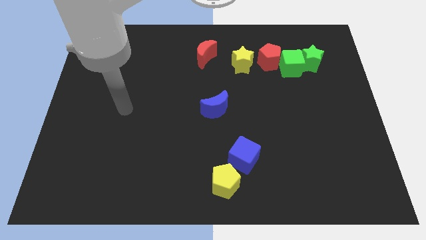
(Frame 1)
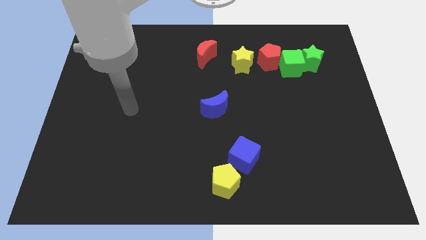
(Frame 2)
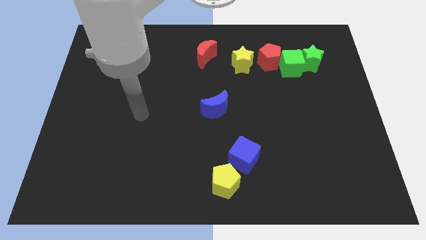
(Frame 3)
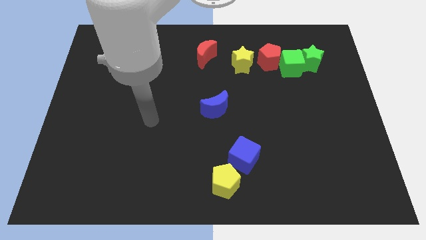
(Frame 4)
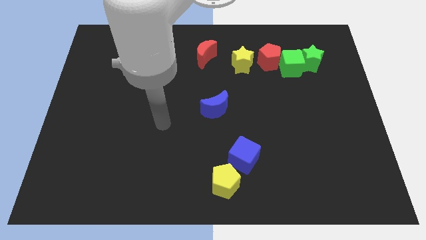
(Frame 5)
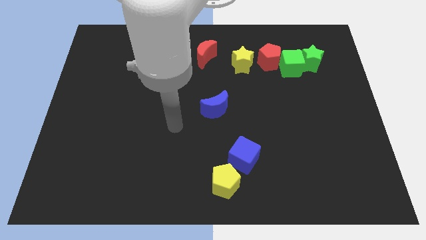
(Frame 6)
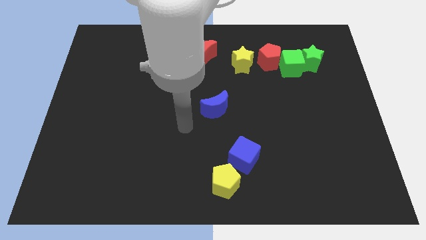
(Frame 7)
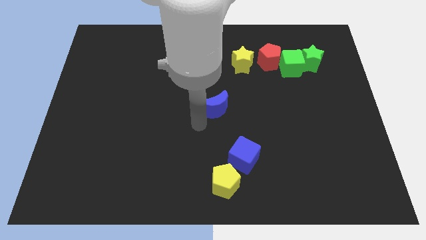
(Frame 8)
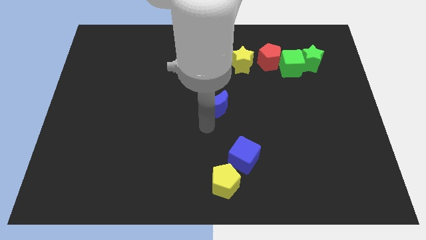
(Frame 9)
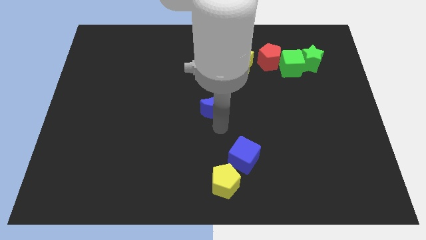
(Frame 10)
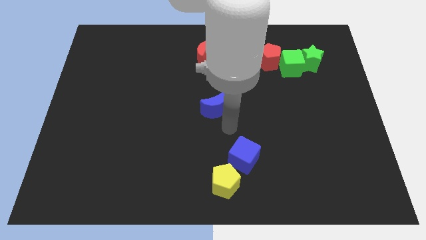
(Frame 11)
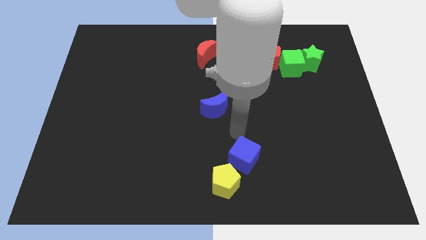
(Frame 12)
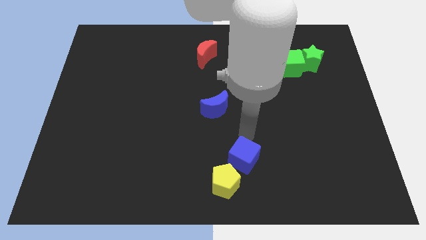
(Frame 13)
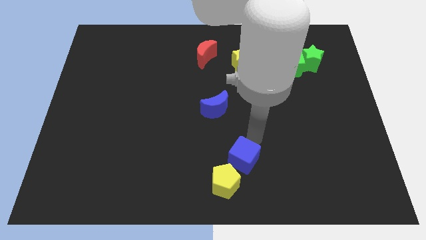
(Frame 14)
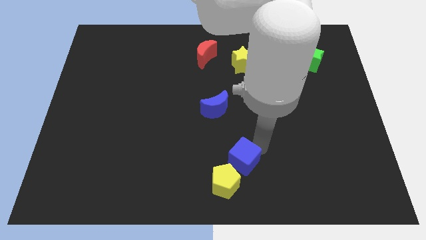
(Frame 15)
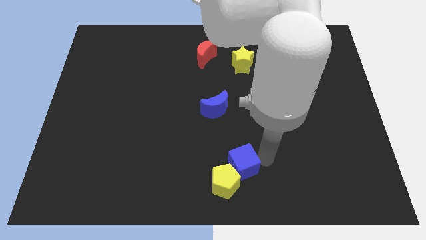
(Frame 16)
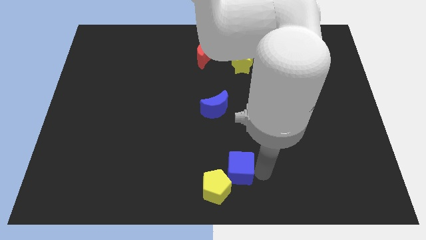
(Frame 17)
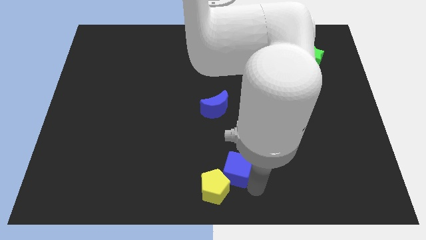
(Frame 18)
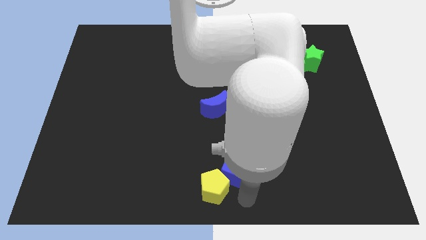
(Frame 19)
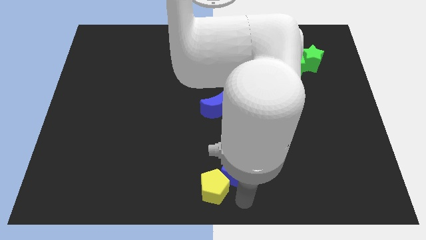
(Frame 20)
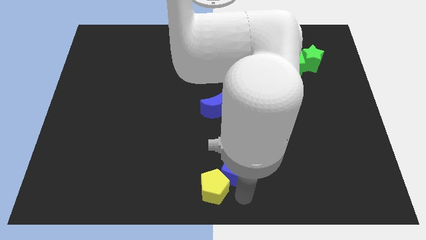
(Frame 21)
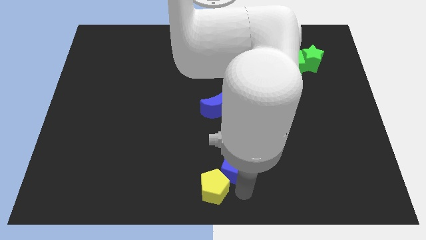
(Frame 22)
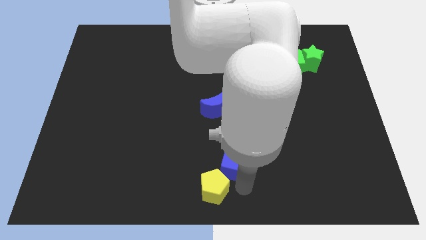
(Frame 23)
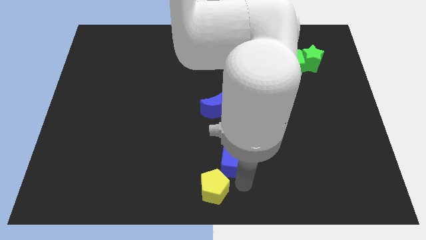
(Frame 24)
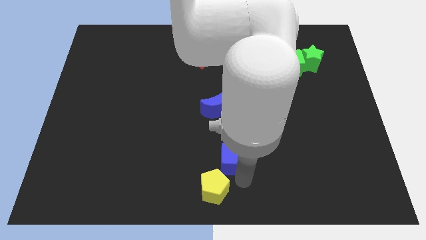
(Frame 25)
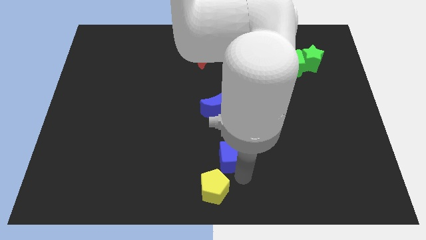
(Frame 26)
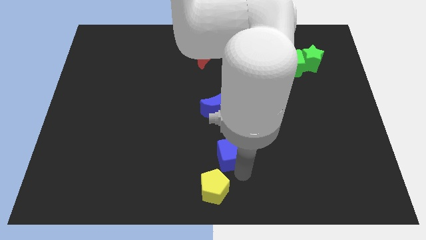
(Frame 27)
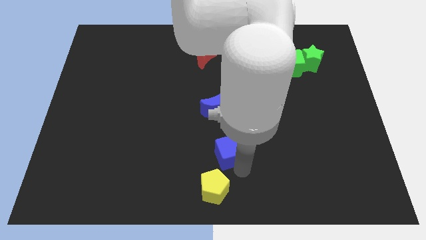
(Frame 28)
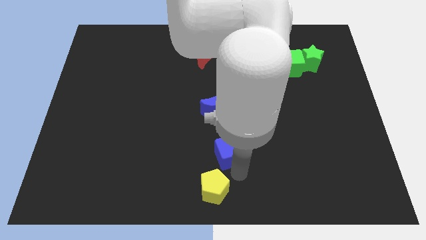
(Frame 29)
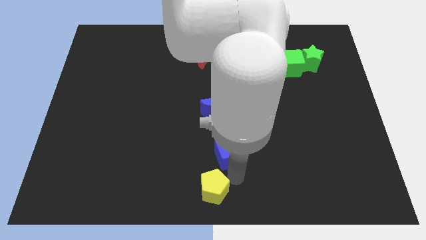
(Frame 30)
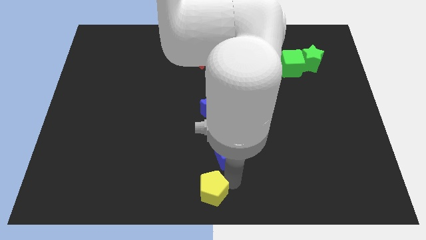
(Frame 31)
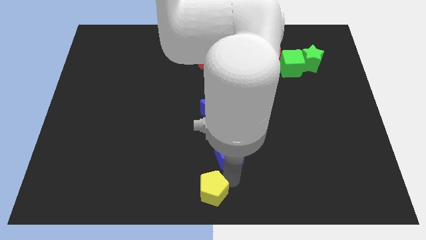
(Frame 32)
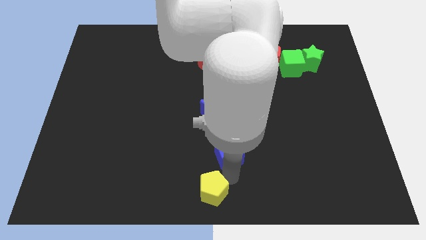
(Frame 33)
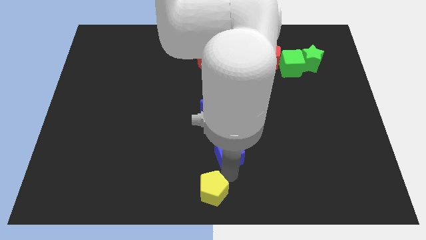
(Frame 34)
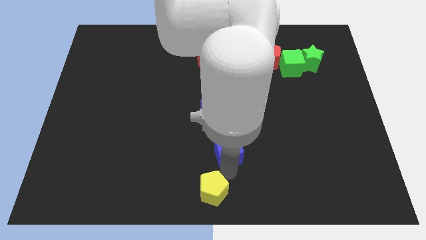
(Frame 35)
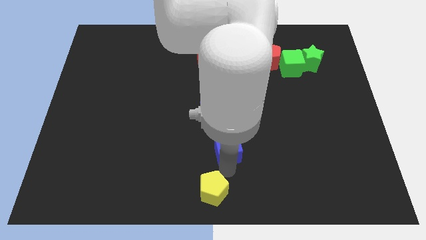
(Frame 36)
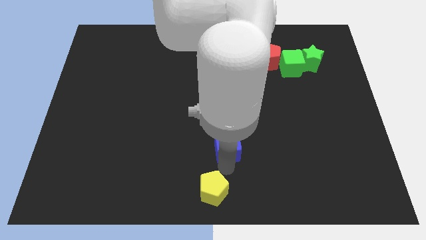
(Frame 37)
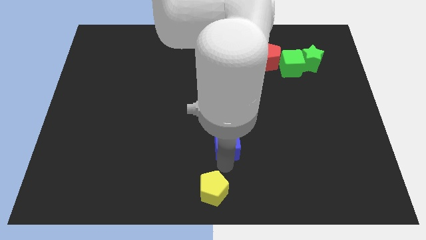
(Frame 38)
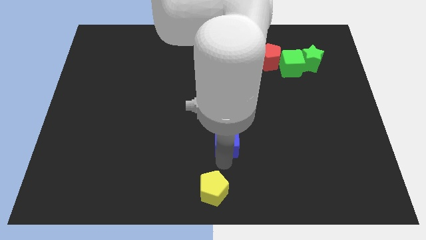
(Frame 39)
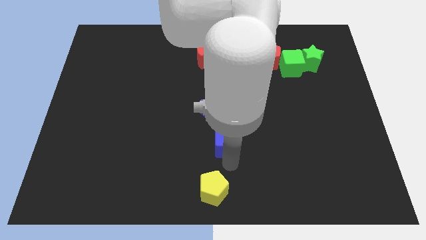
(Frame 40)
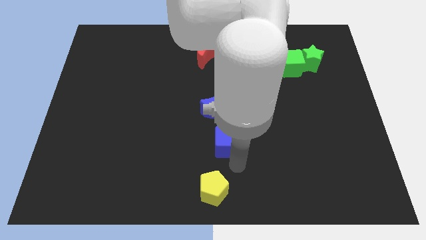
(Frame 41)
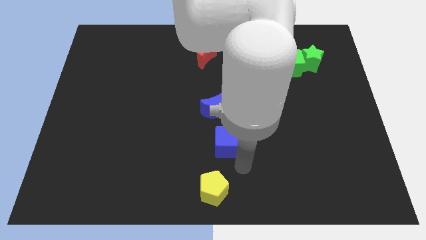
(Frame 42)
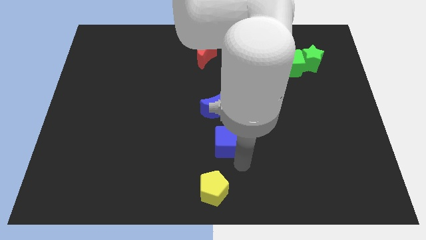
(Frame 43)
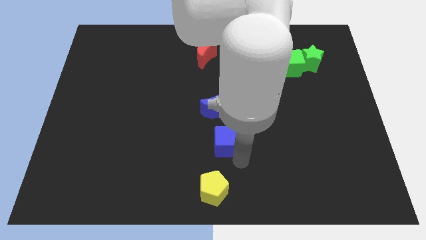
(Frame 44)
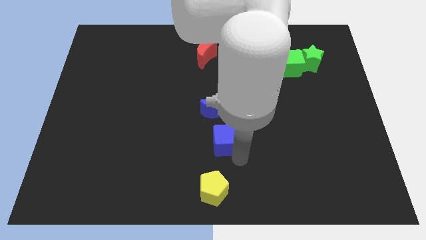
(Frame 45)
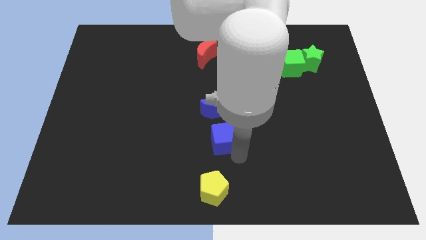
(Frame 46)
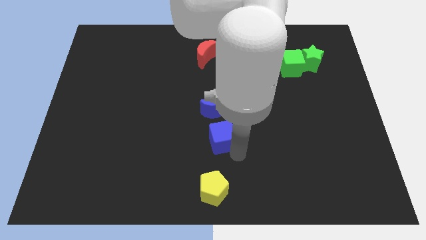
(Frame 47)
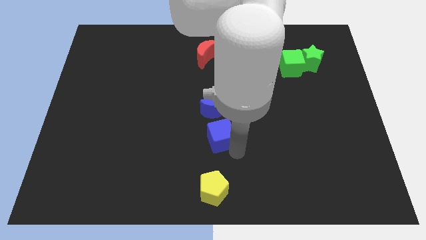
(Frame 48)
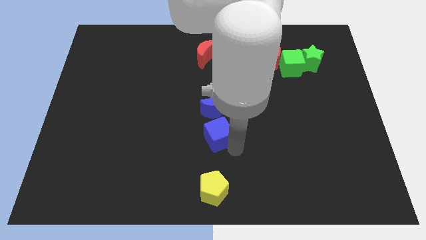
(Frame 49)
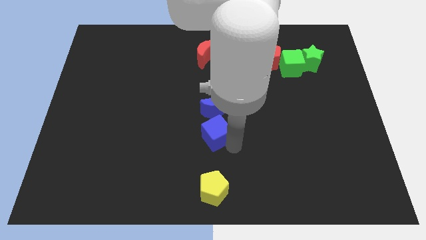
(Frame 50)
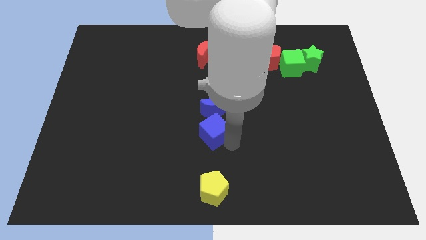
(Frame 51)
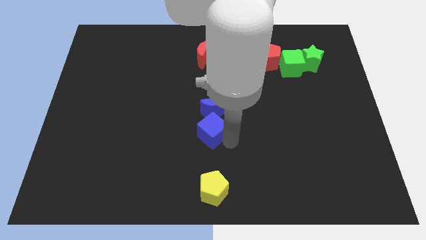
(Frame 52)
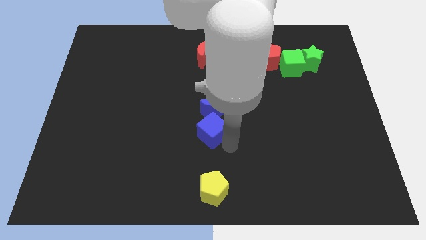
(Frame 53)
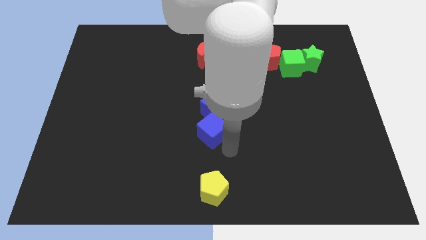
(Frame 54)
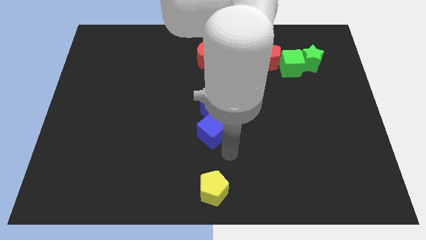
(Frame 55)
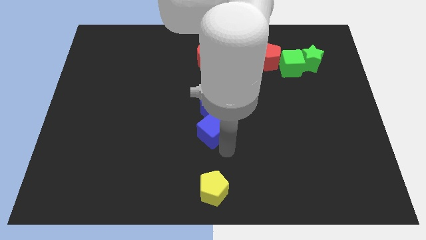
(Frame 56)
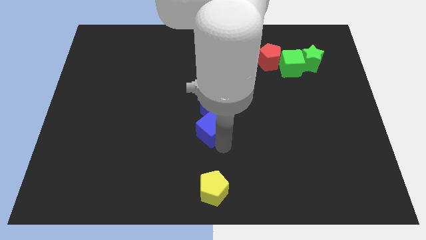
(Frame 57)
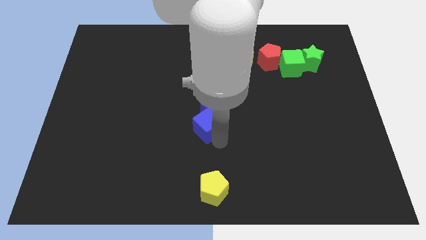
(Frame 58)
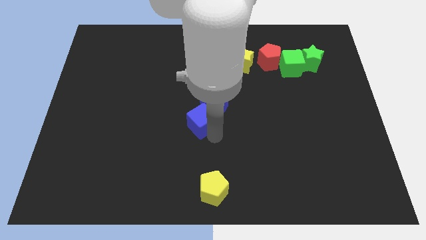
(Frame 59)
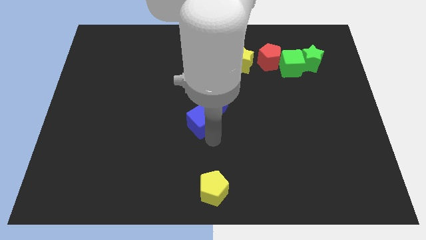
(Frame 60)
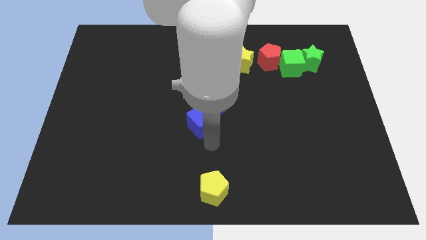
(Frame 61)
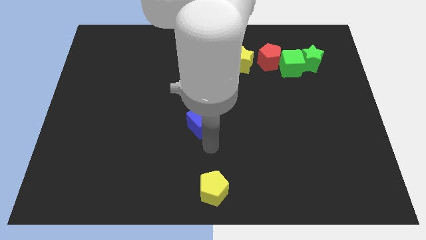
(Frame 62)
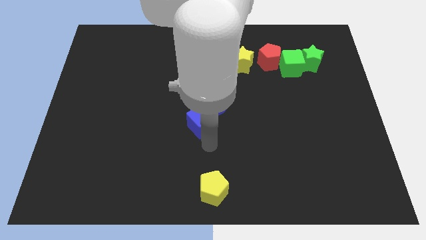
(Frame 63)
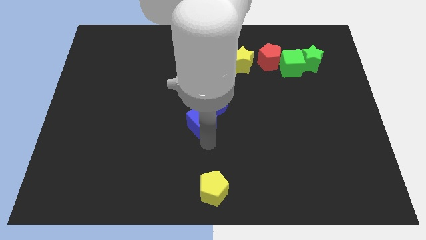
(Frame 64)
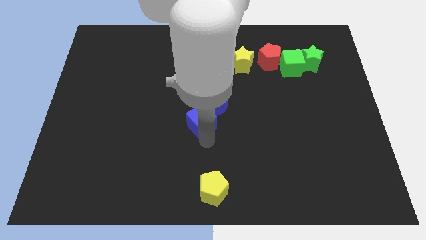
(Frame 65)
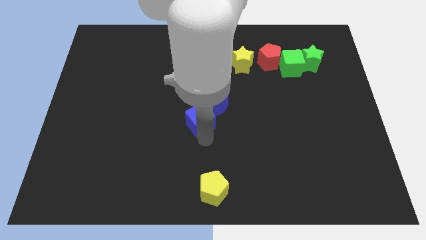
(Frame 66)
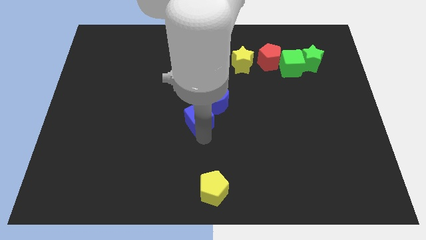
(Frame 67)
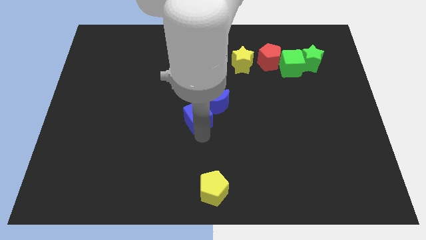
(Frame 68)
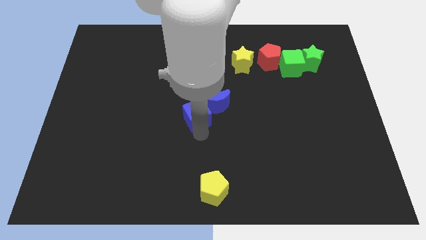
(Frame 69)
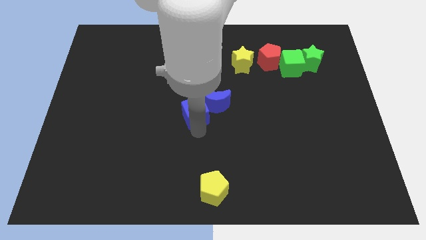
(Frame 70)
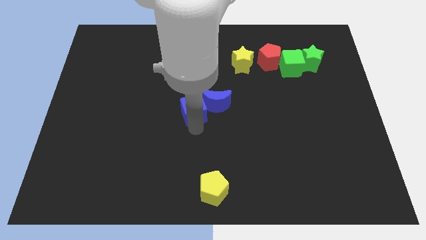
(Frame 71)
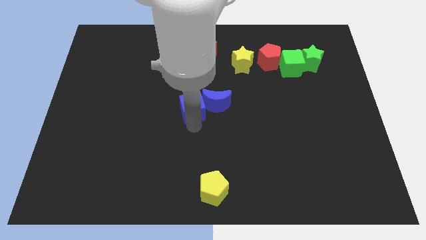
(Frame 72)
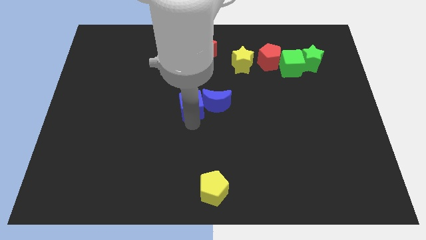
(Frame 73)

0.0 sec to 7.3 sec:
slide the blue cube to the top left of the blue moon
